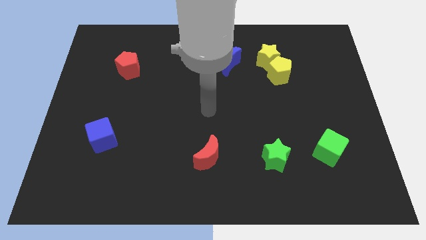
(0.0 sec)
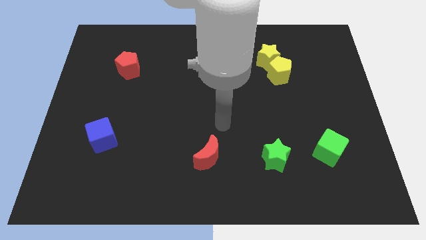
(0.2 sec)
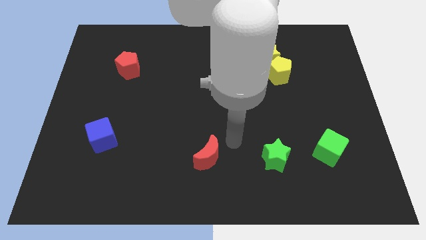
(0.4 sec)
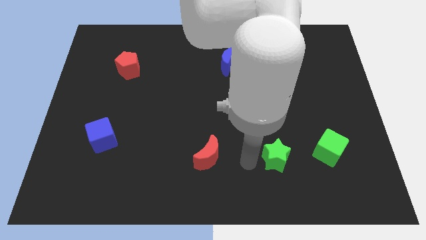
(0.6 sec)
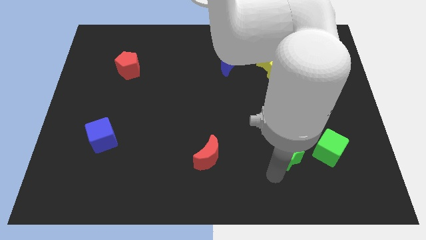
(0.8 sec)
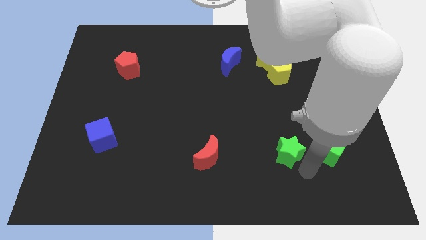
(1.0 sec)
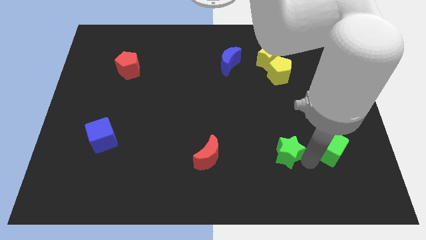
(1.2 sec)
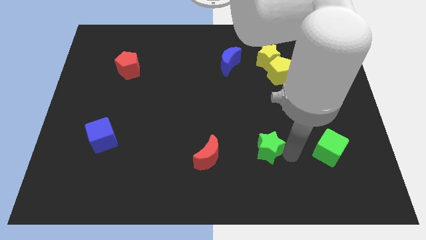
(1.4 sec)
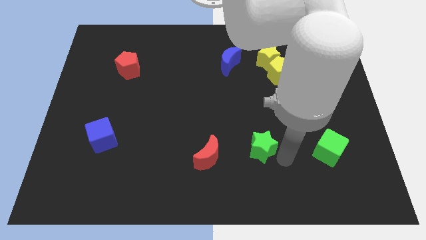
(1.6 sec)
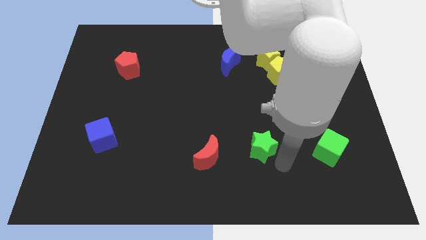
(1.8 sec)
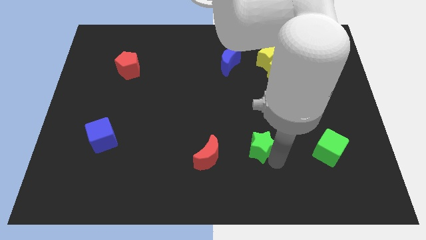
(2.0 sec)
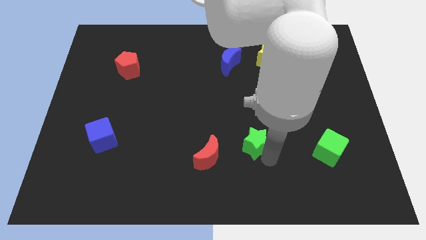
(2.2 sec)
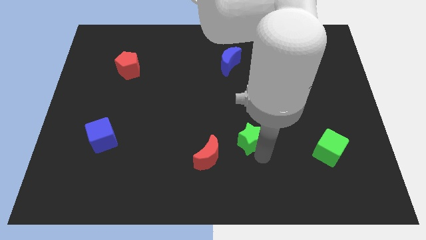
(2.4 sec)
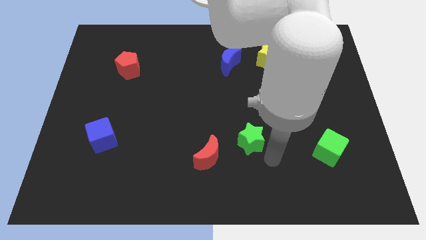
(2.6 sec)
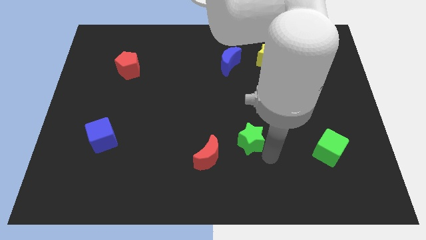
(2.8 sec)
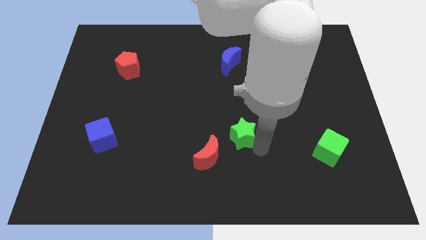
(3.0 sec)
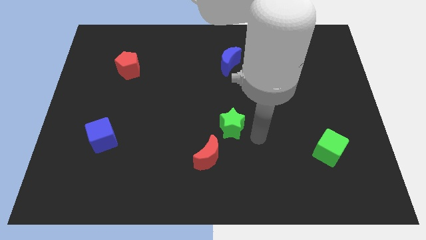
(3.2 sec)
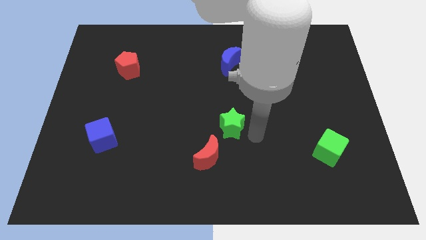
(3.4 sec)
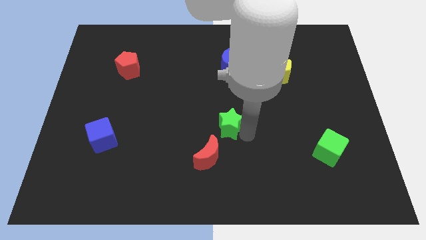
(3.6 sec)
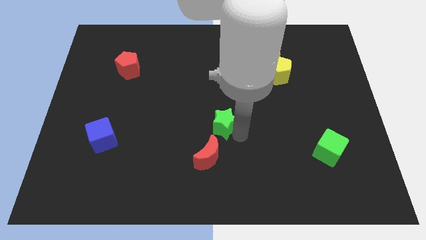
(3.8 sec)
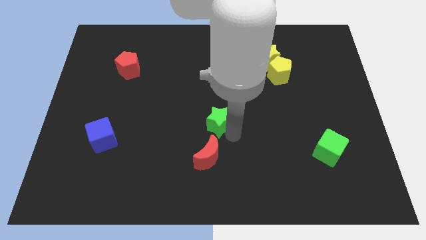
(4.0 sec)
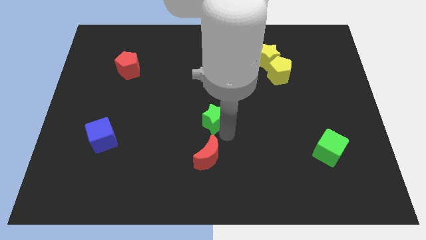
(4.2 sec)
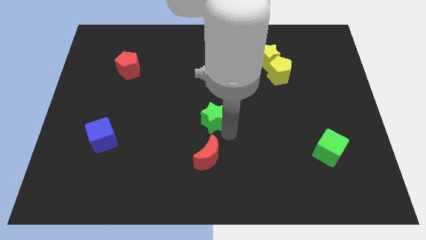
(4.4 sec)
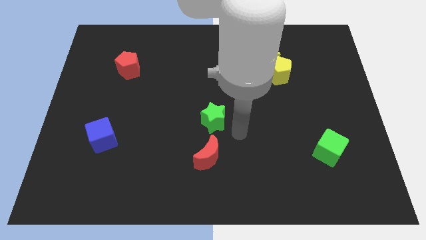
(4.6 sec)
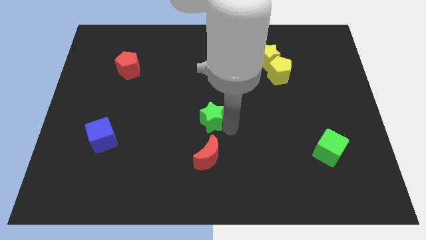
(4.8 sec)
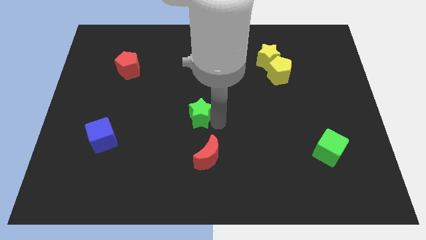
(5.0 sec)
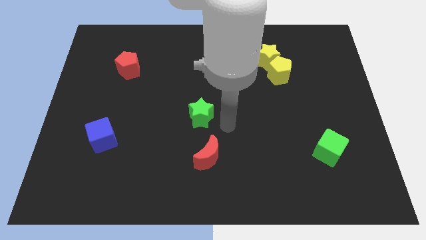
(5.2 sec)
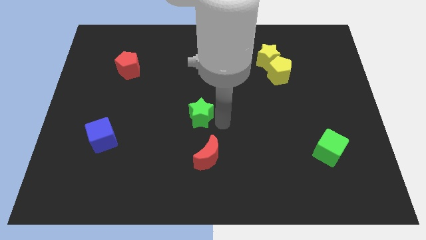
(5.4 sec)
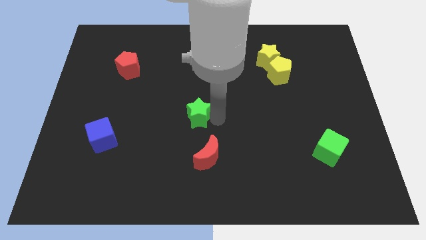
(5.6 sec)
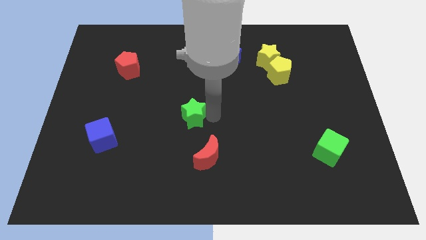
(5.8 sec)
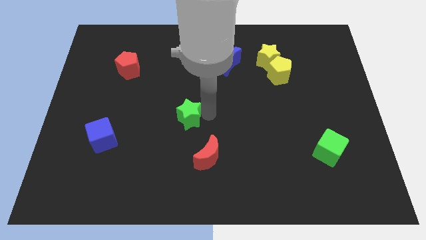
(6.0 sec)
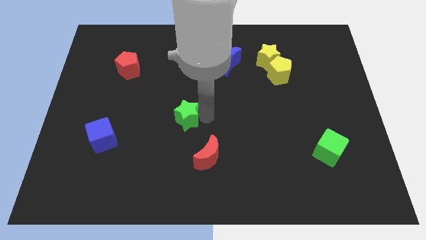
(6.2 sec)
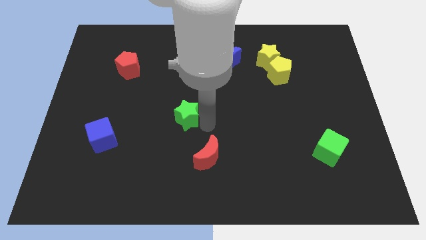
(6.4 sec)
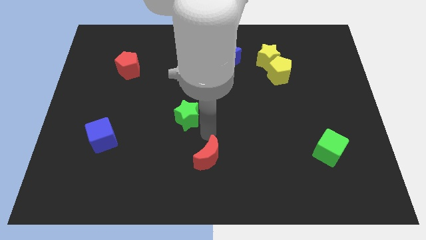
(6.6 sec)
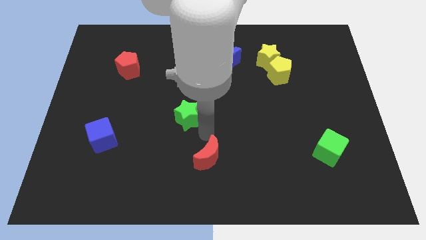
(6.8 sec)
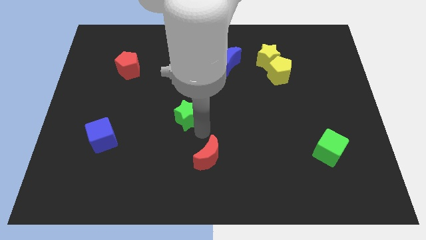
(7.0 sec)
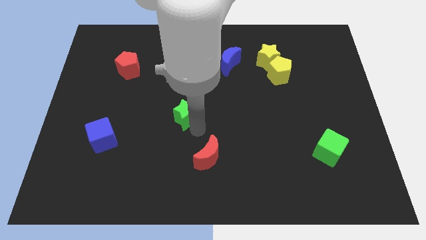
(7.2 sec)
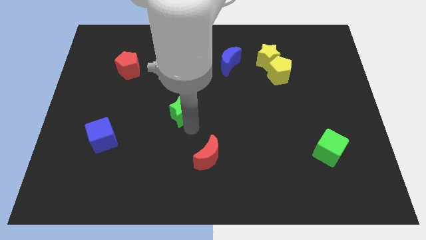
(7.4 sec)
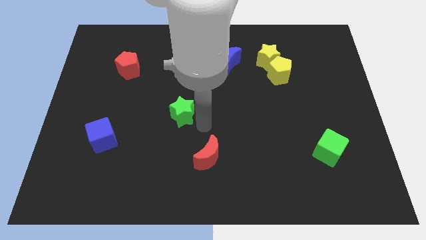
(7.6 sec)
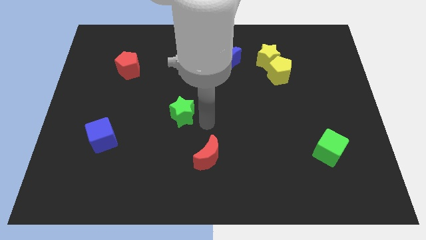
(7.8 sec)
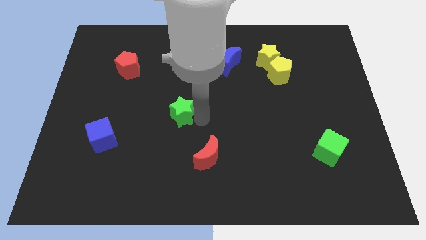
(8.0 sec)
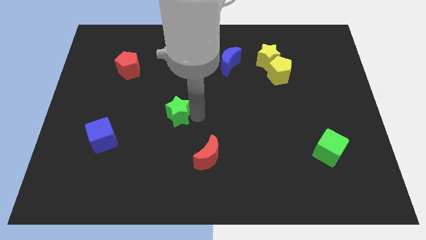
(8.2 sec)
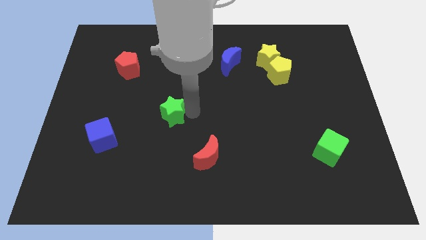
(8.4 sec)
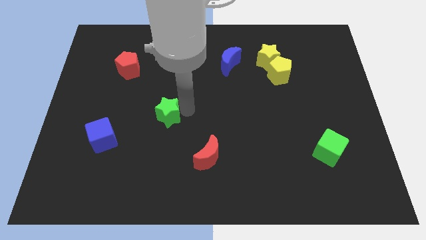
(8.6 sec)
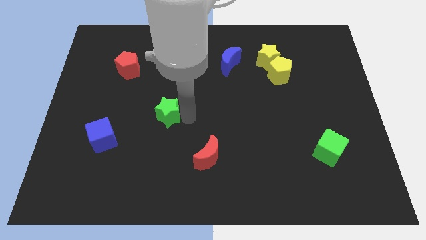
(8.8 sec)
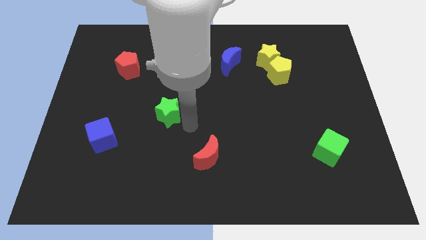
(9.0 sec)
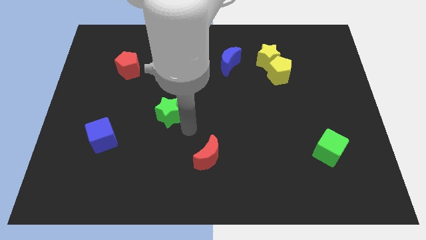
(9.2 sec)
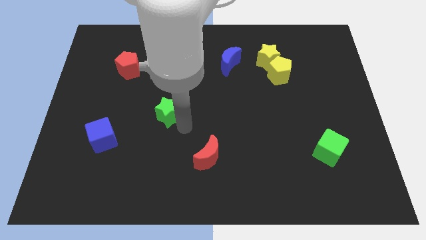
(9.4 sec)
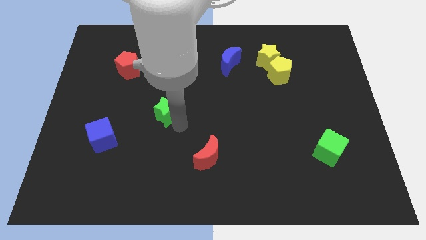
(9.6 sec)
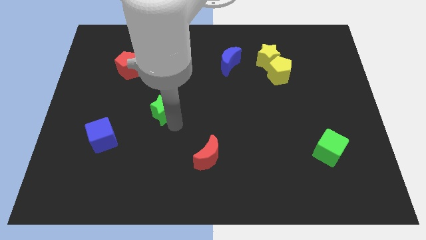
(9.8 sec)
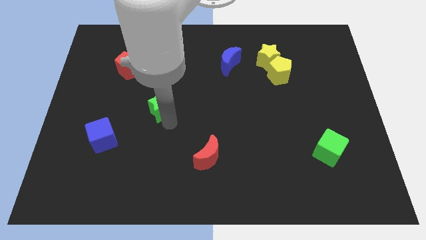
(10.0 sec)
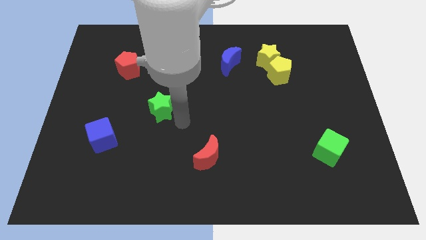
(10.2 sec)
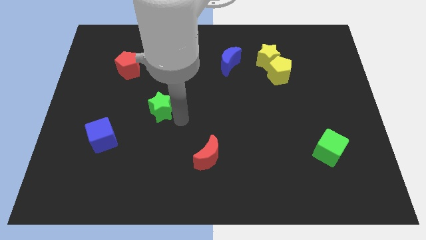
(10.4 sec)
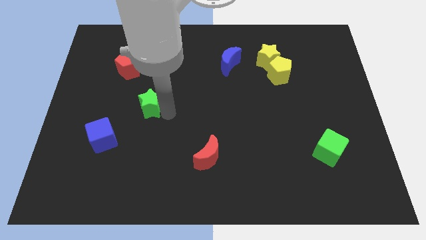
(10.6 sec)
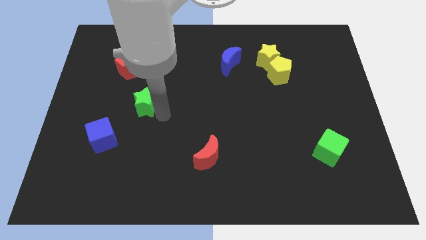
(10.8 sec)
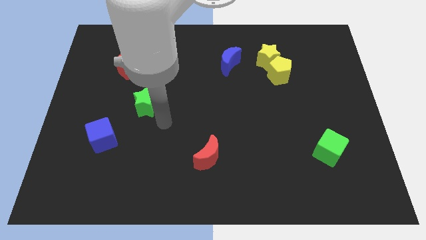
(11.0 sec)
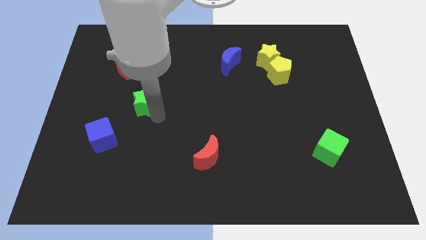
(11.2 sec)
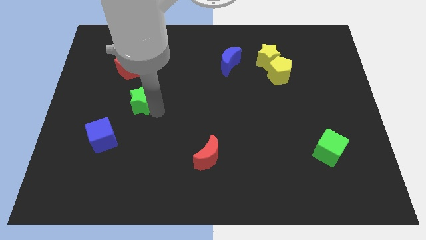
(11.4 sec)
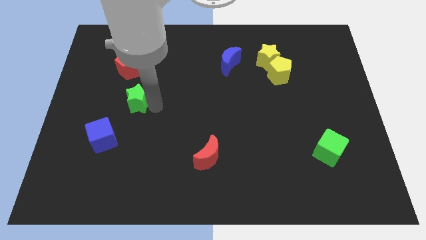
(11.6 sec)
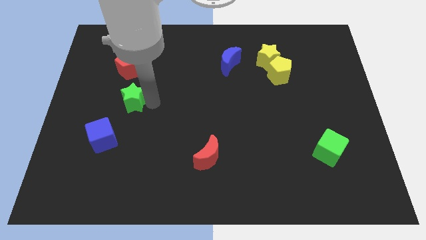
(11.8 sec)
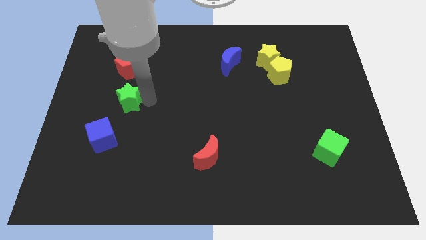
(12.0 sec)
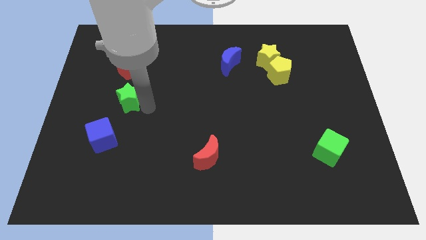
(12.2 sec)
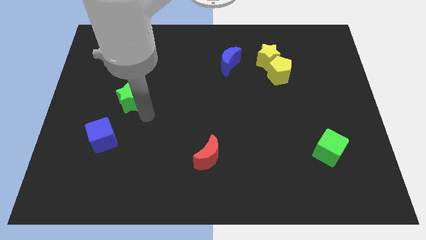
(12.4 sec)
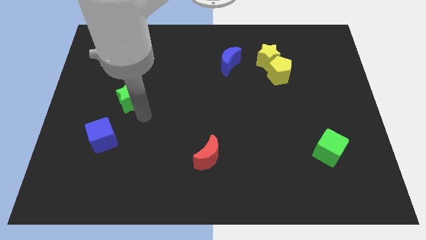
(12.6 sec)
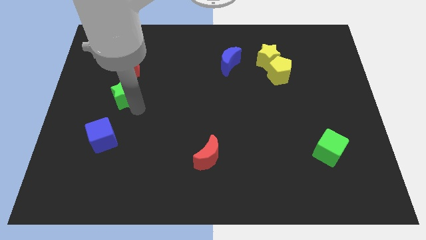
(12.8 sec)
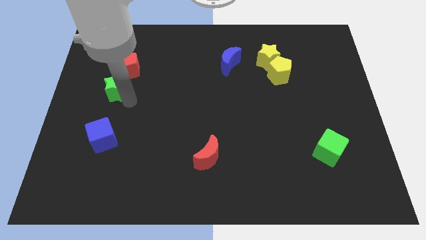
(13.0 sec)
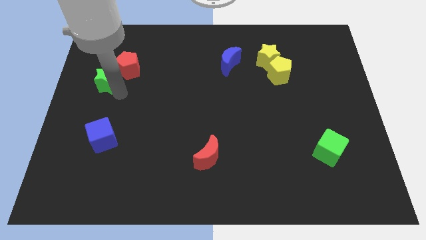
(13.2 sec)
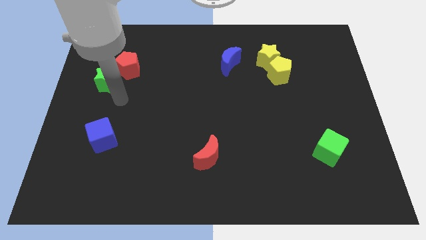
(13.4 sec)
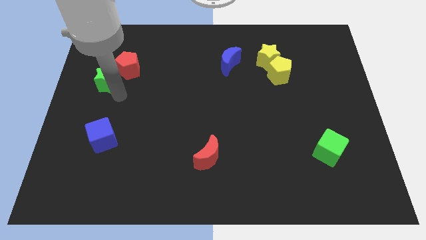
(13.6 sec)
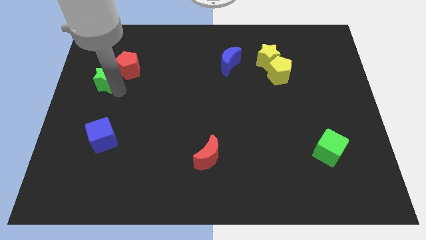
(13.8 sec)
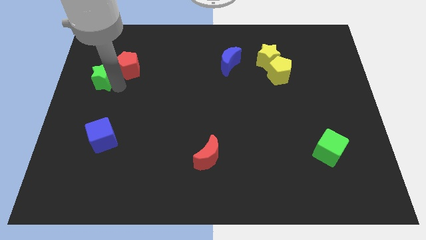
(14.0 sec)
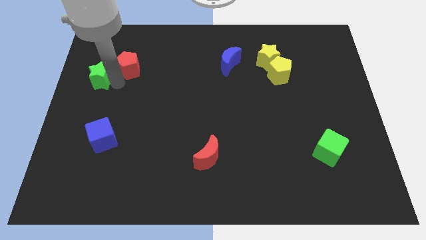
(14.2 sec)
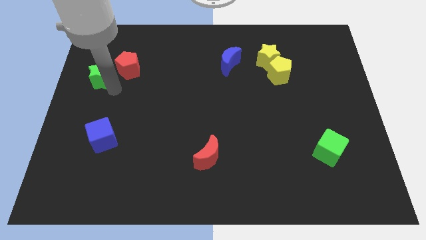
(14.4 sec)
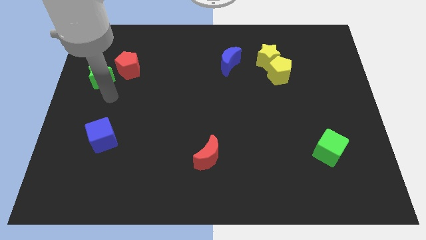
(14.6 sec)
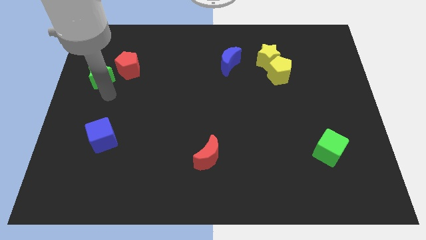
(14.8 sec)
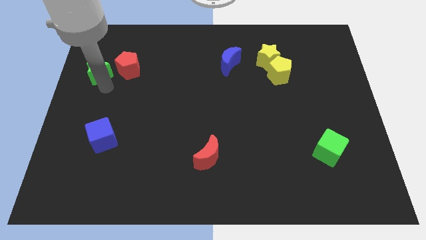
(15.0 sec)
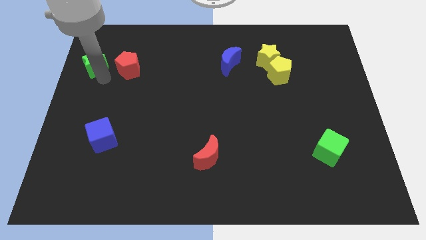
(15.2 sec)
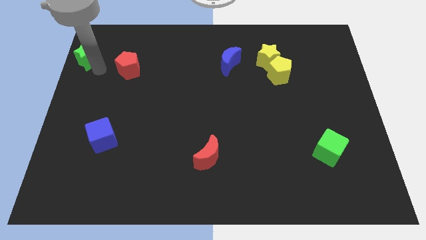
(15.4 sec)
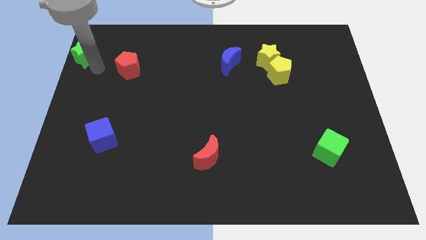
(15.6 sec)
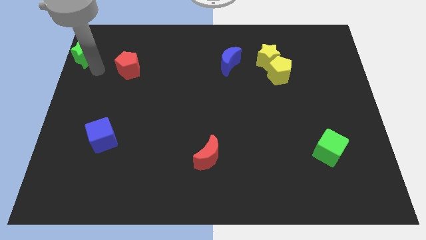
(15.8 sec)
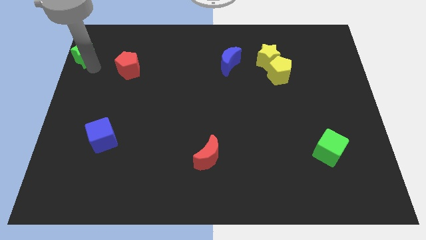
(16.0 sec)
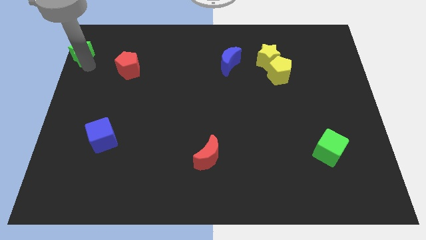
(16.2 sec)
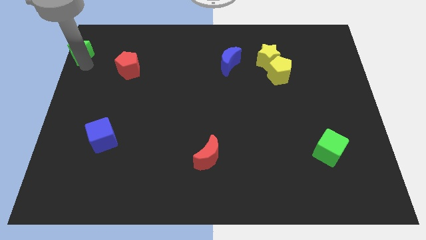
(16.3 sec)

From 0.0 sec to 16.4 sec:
move the green star to the top left
